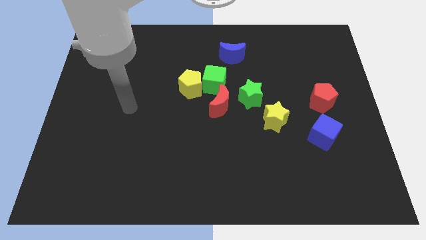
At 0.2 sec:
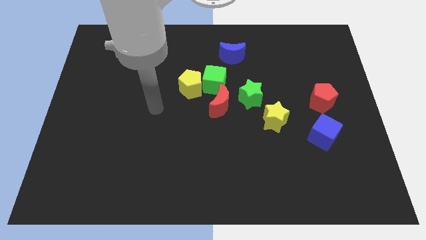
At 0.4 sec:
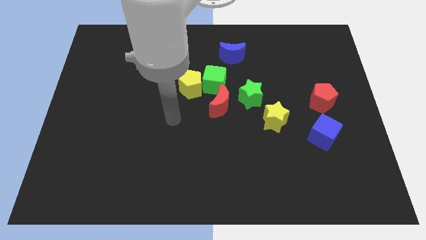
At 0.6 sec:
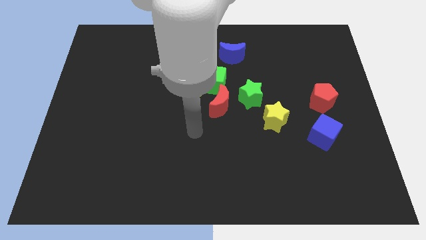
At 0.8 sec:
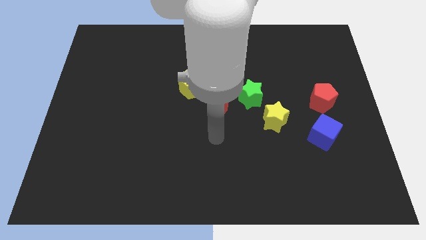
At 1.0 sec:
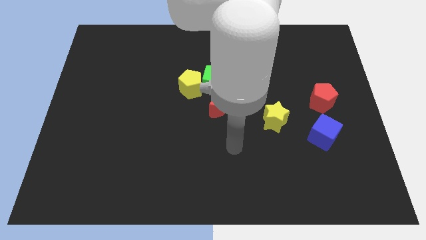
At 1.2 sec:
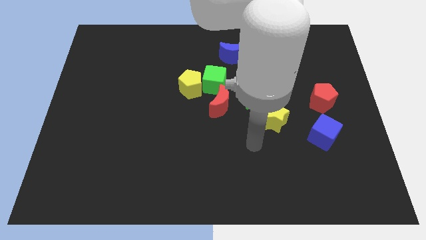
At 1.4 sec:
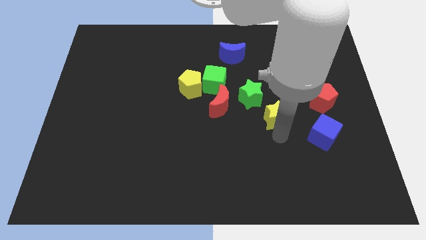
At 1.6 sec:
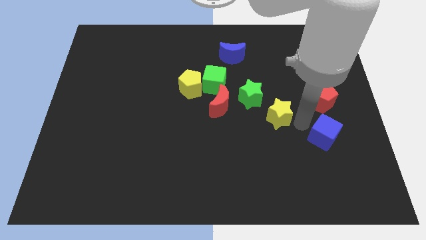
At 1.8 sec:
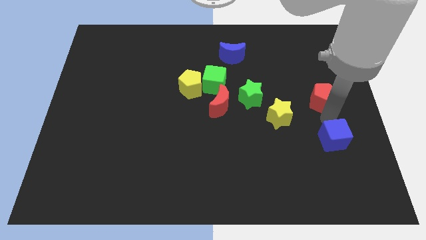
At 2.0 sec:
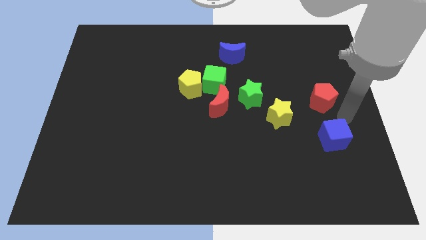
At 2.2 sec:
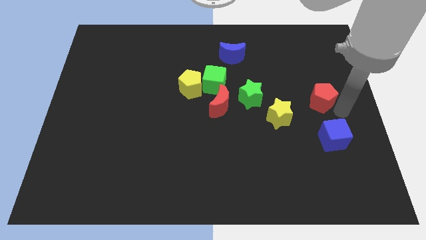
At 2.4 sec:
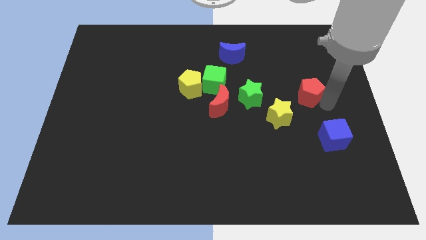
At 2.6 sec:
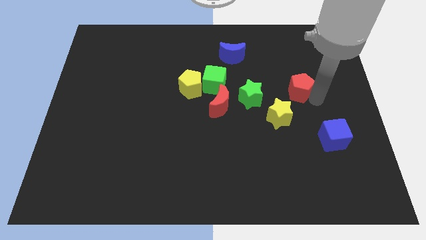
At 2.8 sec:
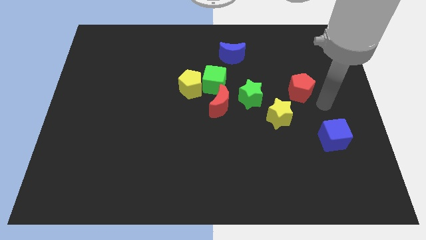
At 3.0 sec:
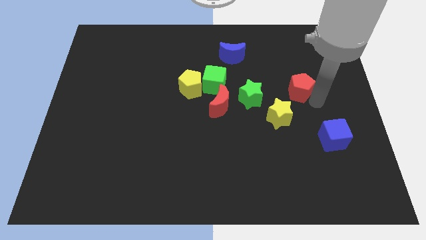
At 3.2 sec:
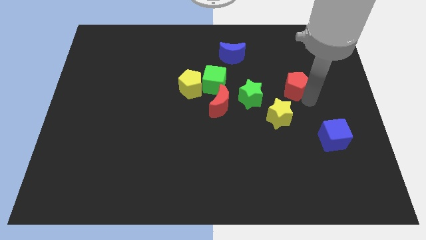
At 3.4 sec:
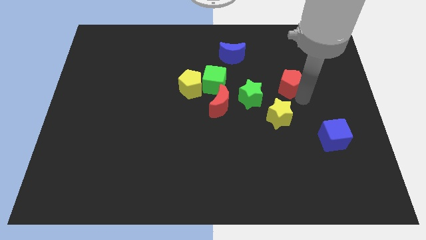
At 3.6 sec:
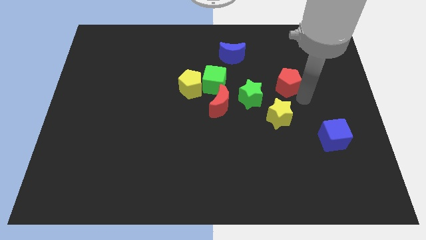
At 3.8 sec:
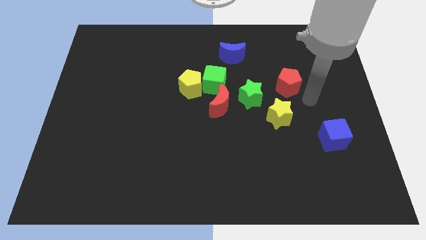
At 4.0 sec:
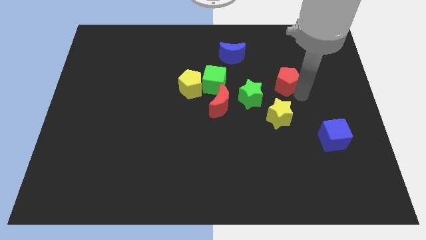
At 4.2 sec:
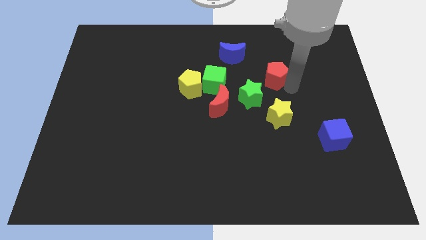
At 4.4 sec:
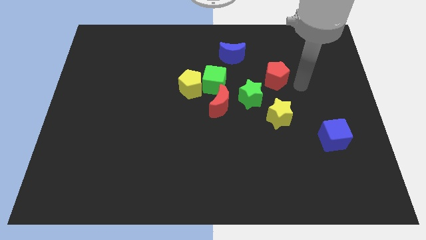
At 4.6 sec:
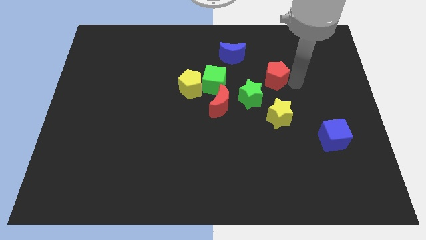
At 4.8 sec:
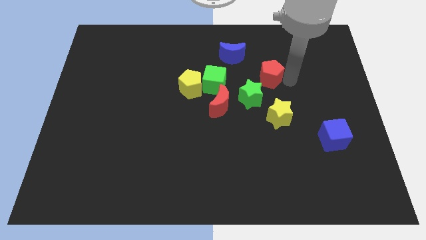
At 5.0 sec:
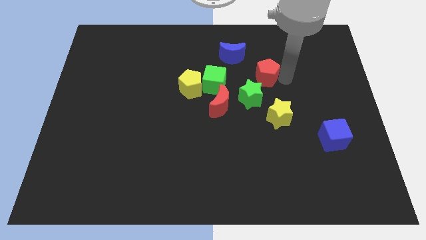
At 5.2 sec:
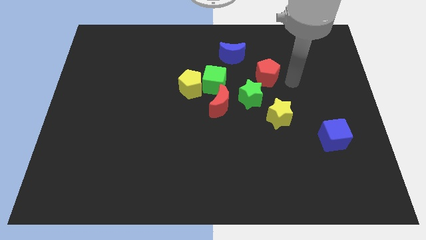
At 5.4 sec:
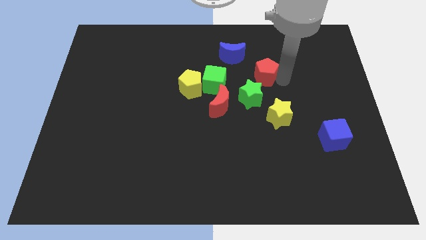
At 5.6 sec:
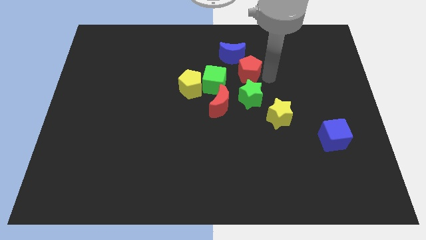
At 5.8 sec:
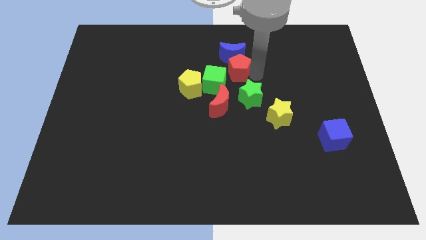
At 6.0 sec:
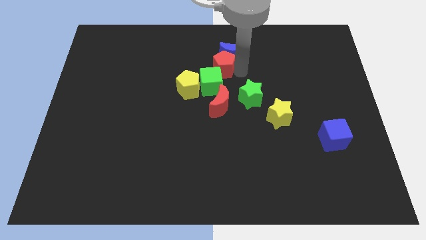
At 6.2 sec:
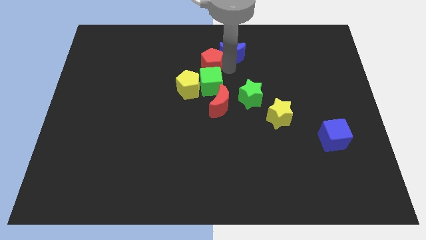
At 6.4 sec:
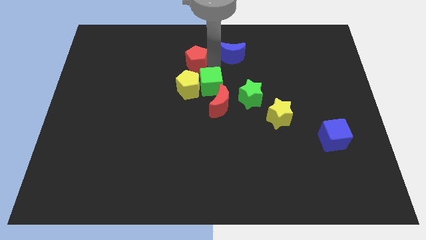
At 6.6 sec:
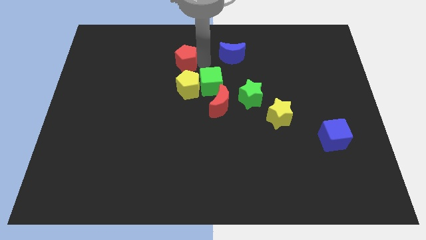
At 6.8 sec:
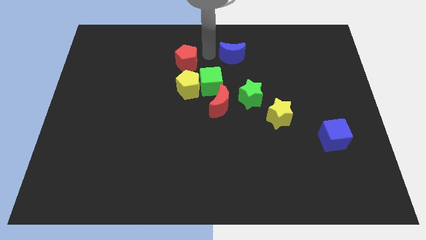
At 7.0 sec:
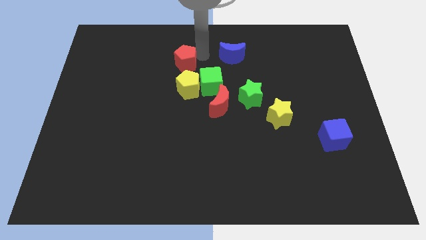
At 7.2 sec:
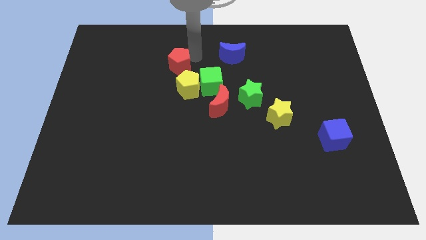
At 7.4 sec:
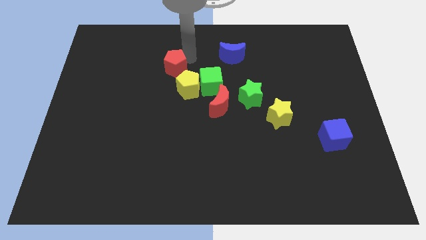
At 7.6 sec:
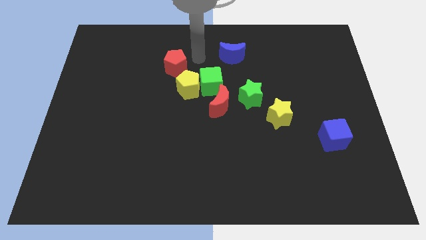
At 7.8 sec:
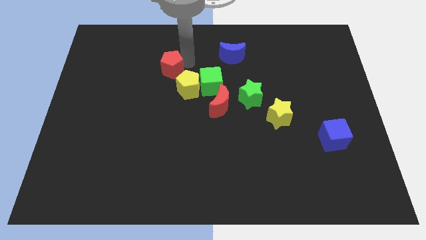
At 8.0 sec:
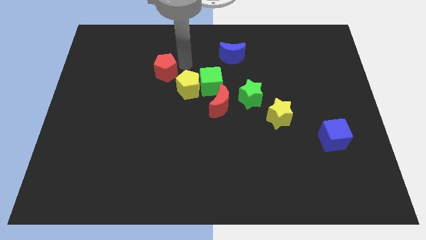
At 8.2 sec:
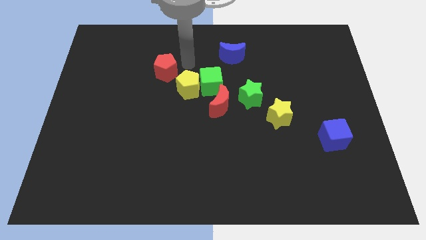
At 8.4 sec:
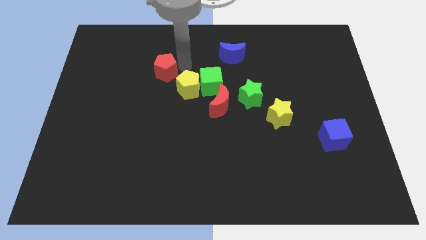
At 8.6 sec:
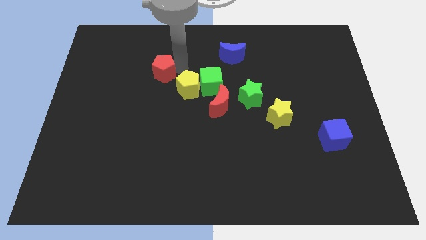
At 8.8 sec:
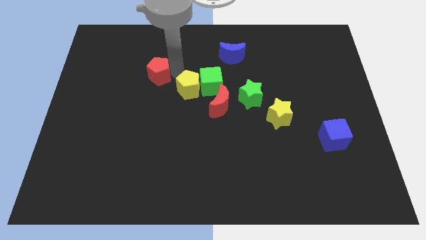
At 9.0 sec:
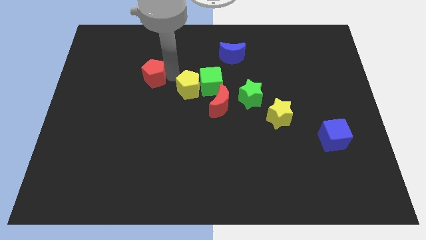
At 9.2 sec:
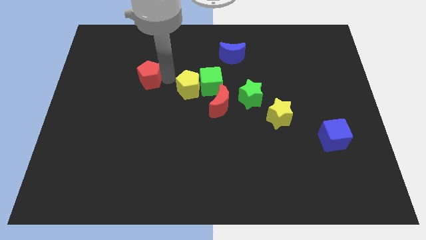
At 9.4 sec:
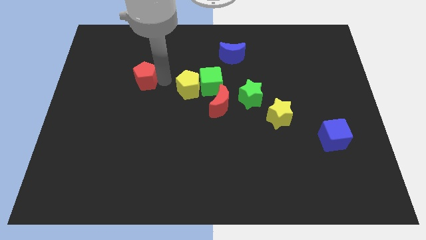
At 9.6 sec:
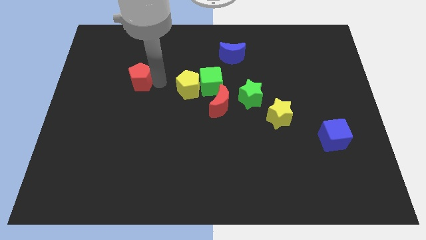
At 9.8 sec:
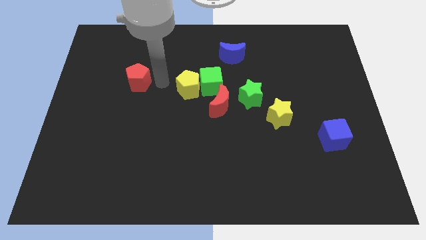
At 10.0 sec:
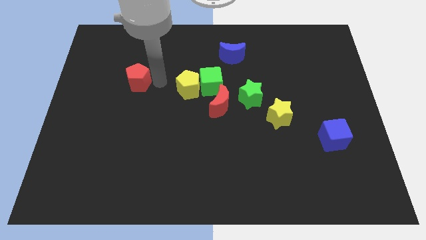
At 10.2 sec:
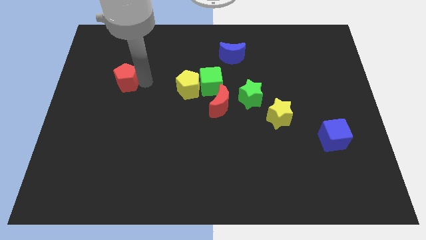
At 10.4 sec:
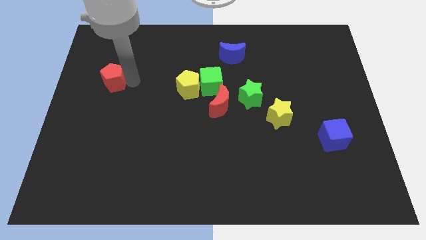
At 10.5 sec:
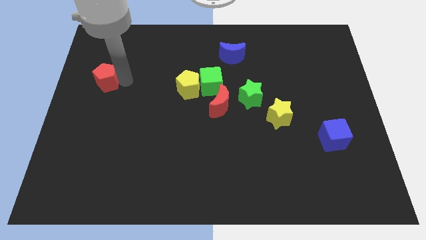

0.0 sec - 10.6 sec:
slide the red pentagon to the left side of the board
